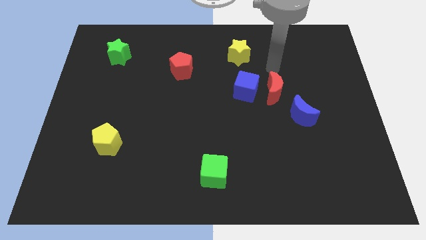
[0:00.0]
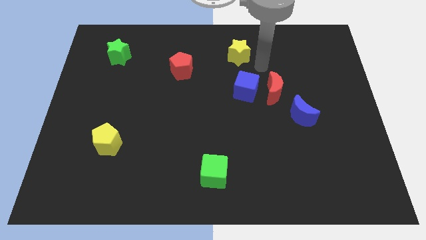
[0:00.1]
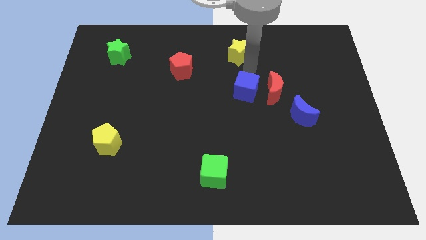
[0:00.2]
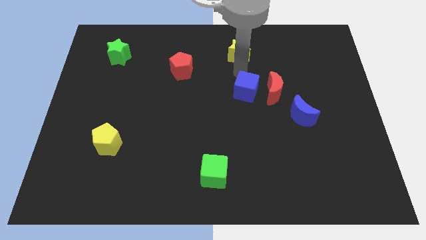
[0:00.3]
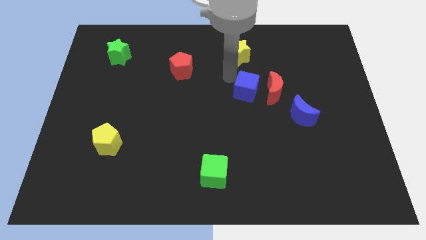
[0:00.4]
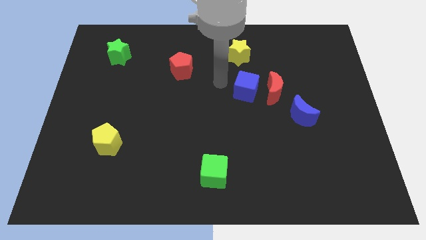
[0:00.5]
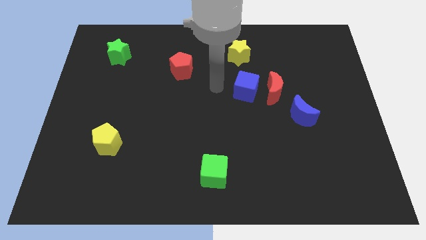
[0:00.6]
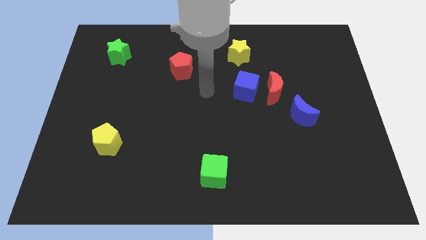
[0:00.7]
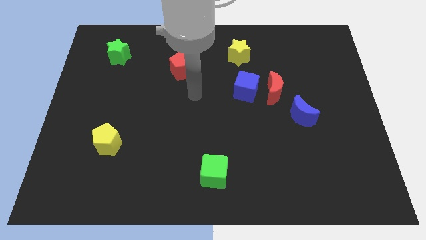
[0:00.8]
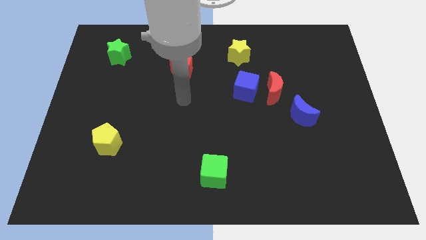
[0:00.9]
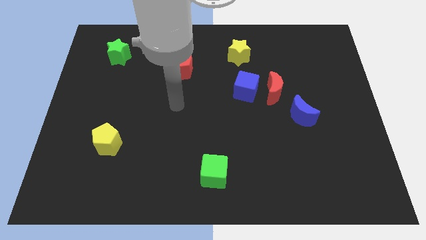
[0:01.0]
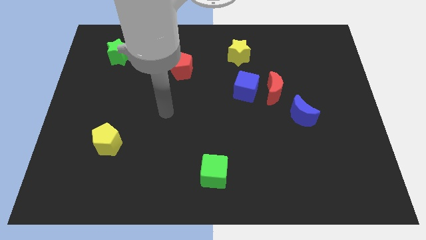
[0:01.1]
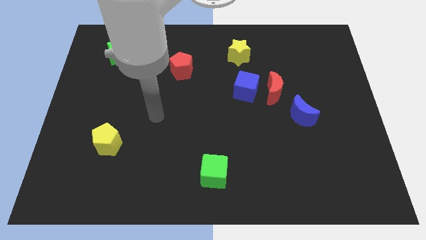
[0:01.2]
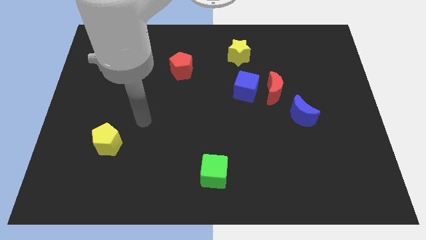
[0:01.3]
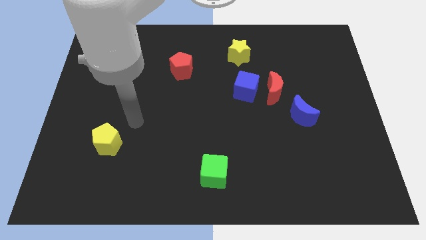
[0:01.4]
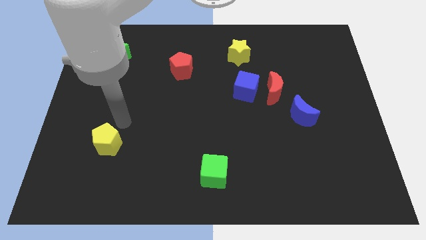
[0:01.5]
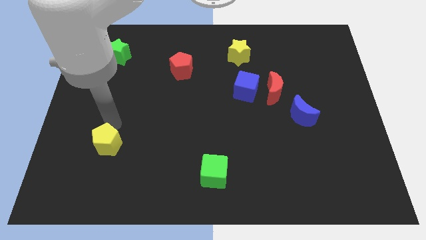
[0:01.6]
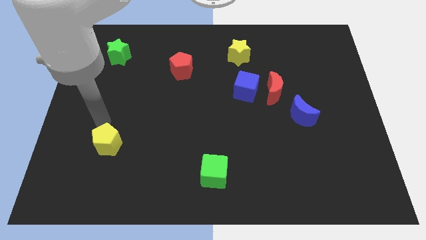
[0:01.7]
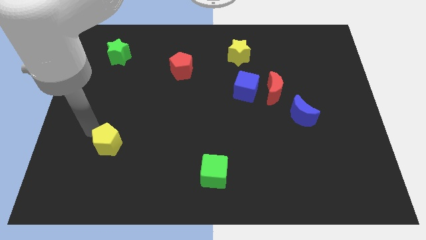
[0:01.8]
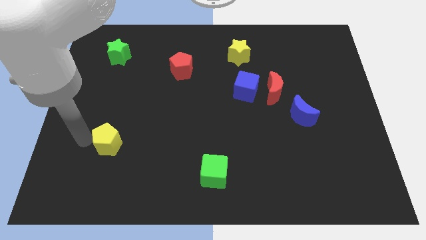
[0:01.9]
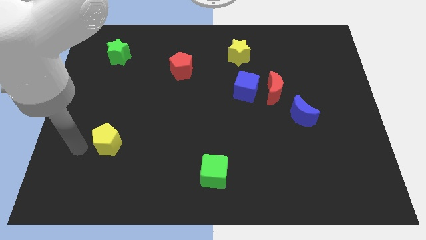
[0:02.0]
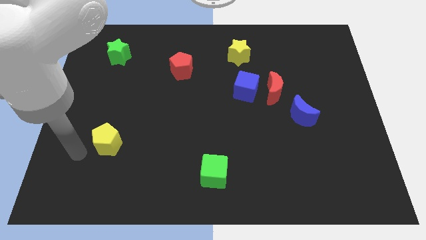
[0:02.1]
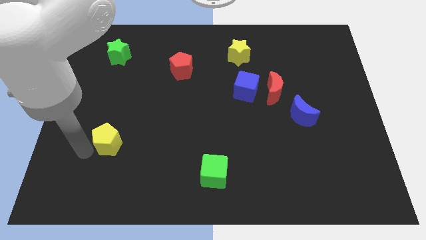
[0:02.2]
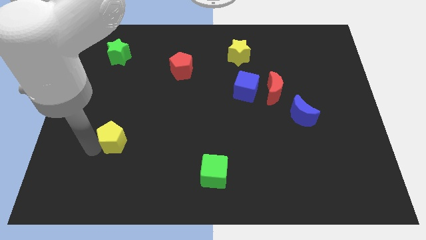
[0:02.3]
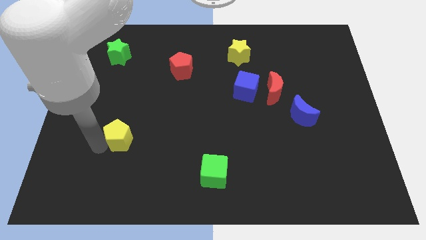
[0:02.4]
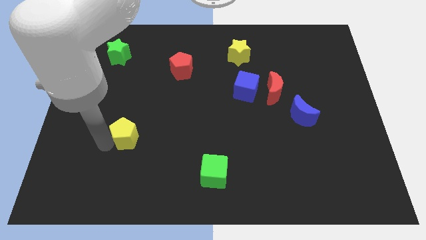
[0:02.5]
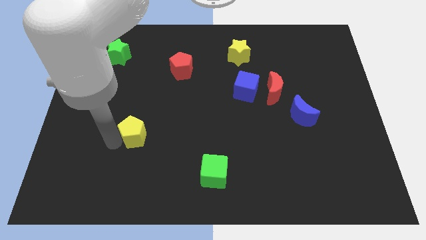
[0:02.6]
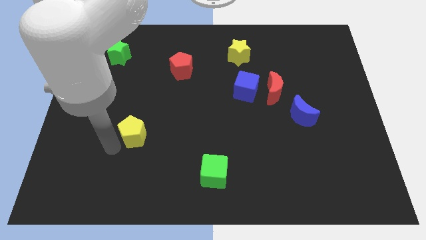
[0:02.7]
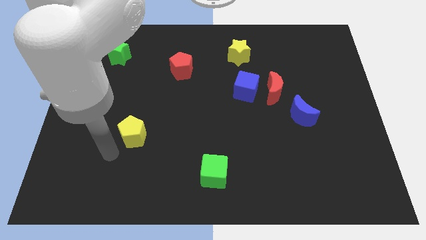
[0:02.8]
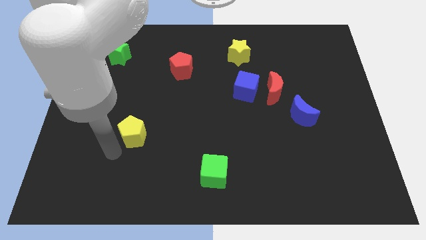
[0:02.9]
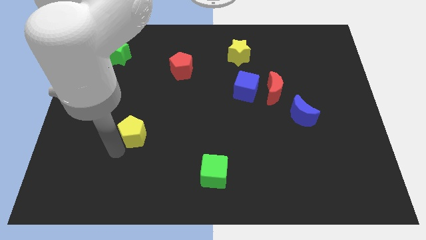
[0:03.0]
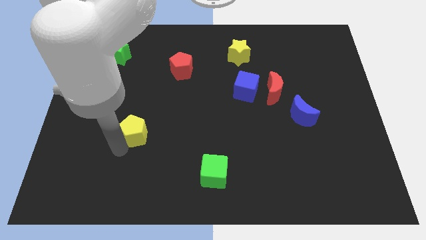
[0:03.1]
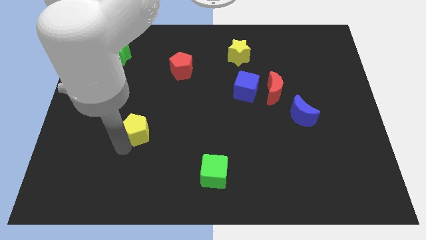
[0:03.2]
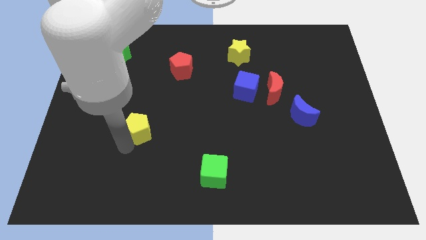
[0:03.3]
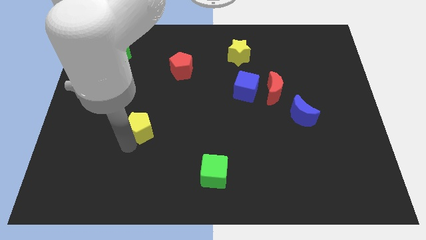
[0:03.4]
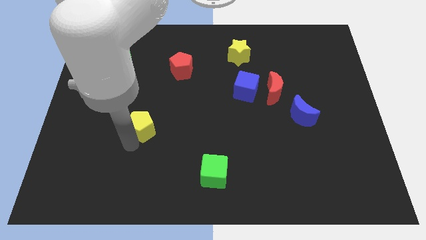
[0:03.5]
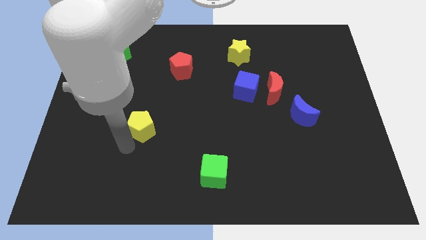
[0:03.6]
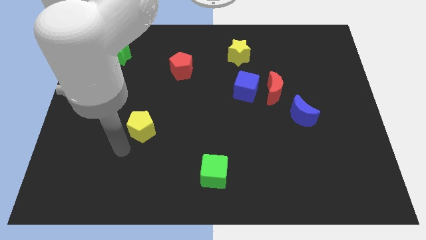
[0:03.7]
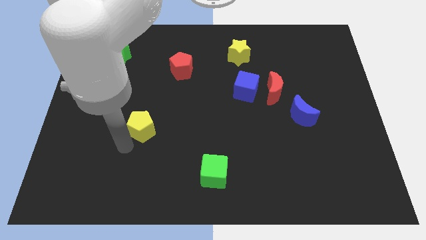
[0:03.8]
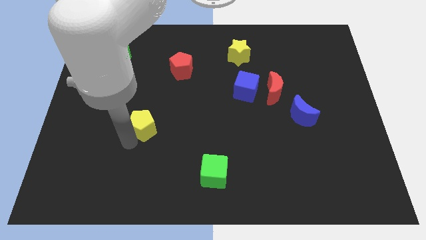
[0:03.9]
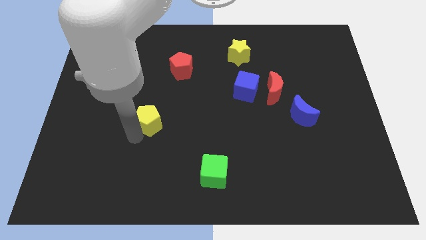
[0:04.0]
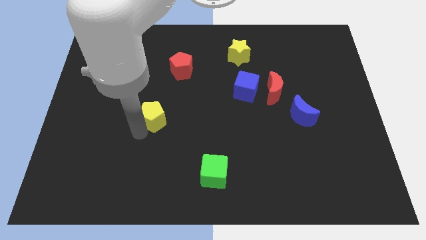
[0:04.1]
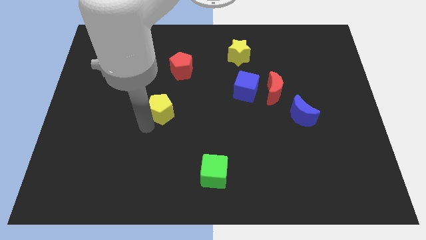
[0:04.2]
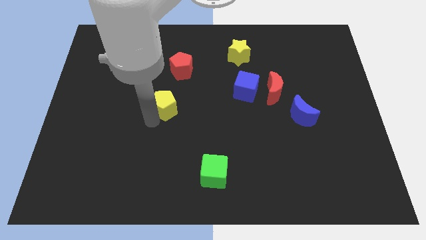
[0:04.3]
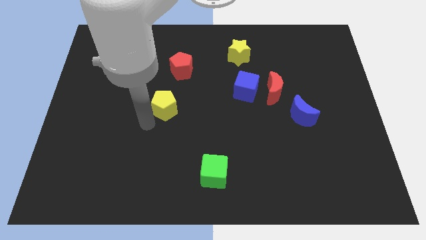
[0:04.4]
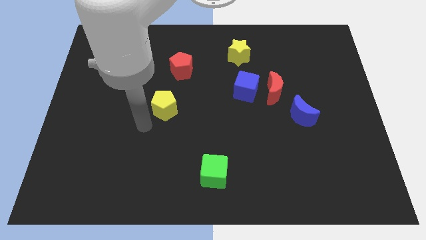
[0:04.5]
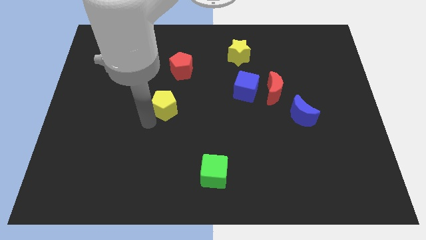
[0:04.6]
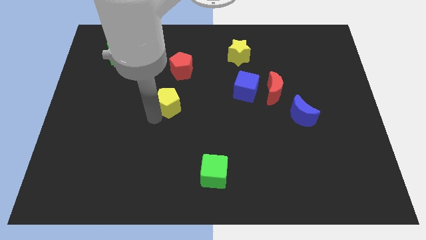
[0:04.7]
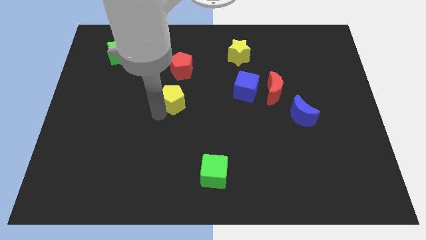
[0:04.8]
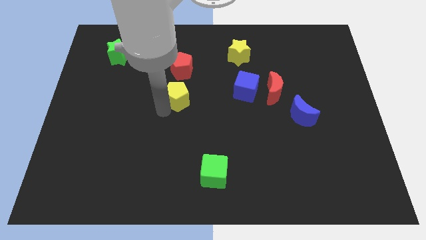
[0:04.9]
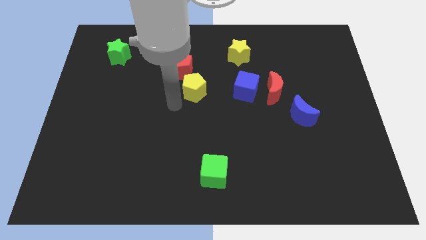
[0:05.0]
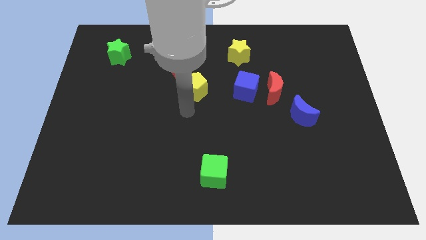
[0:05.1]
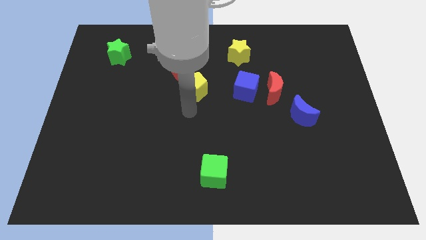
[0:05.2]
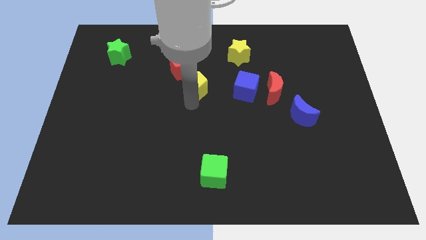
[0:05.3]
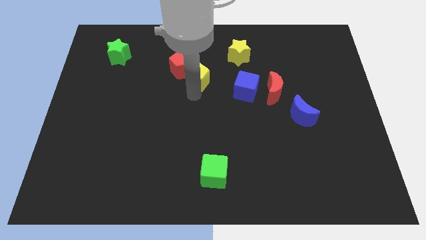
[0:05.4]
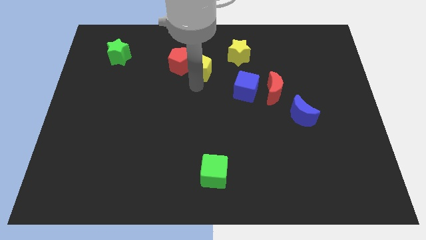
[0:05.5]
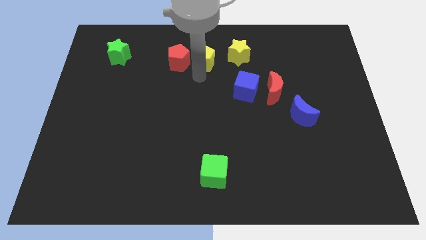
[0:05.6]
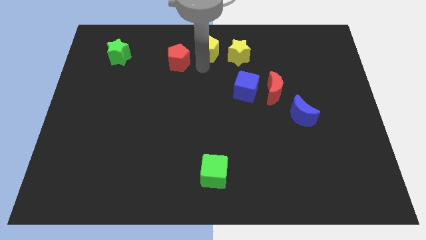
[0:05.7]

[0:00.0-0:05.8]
push the yellow pentagon to the top

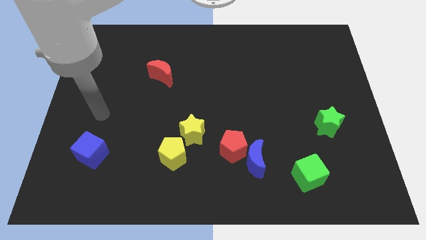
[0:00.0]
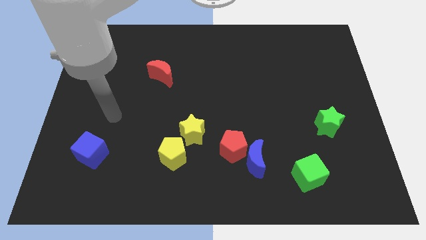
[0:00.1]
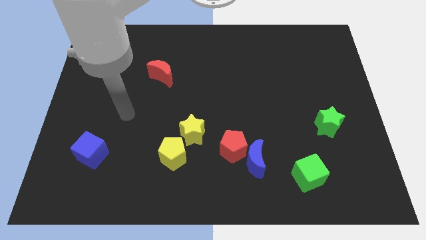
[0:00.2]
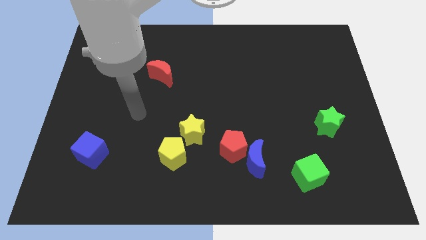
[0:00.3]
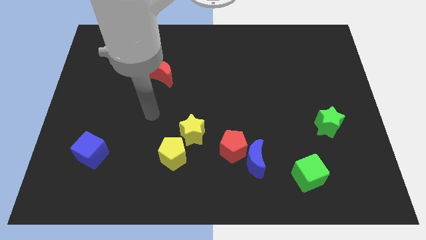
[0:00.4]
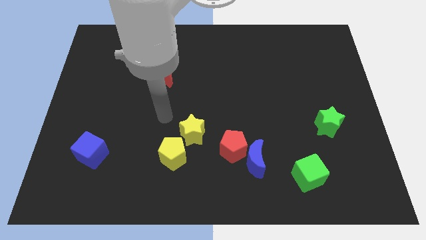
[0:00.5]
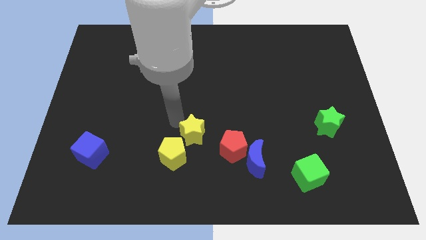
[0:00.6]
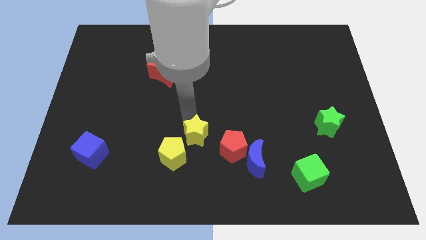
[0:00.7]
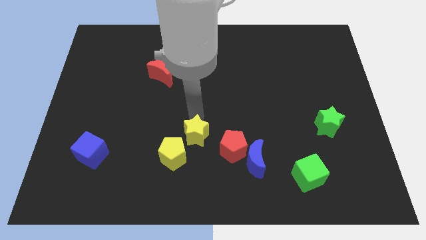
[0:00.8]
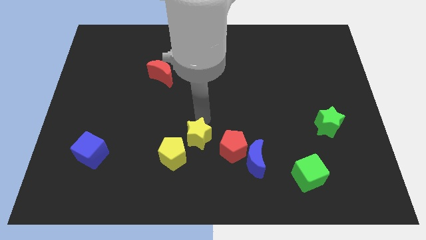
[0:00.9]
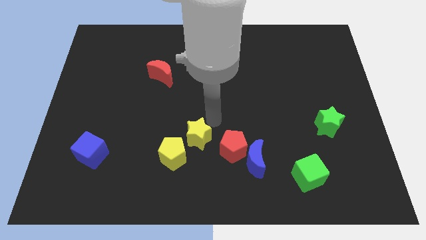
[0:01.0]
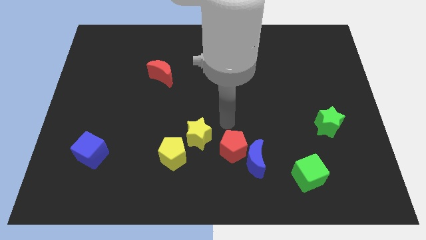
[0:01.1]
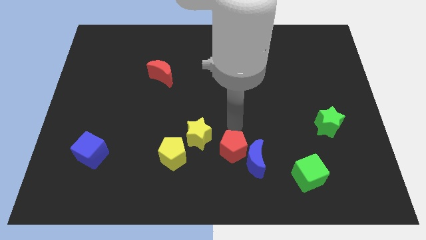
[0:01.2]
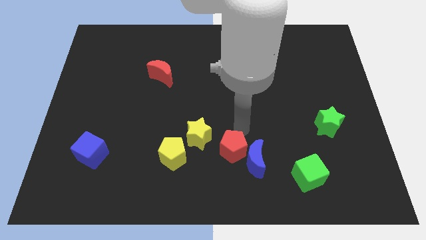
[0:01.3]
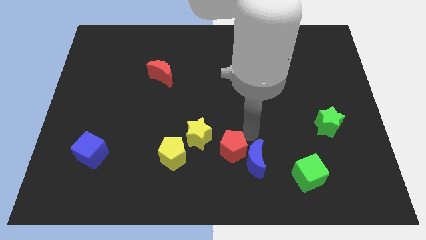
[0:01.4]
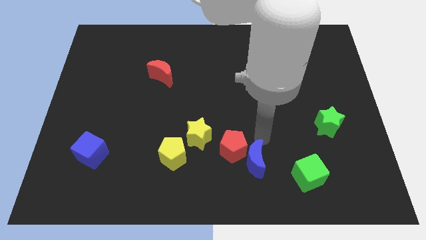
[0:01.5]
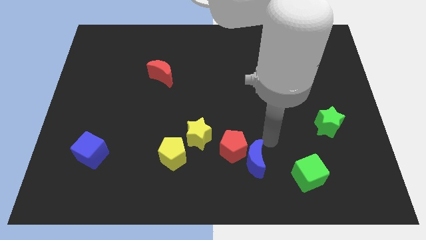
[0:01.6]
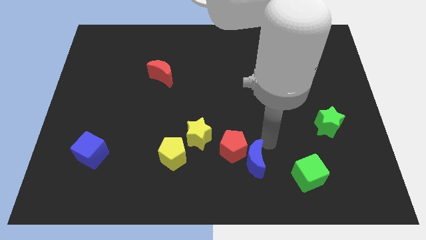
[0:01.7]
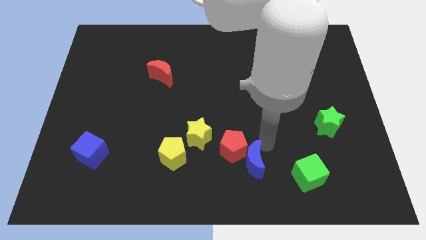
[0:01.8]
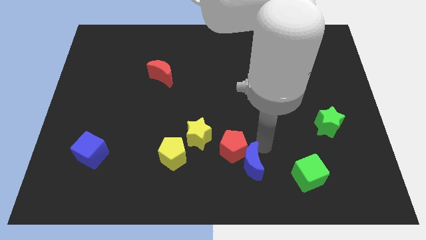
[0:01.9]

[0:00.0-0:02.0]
slide the blue moon to the bottom side
